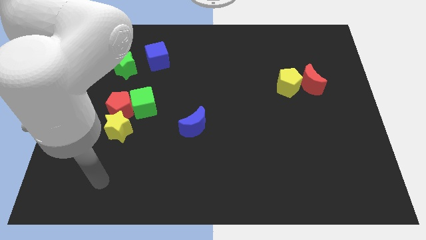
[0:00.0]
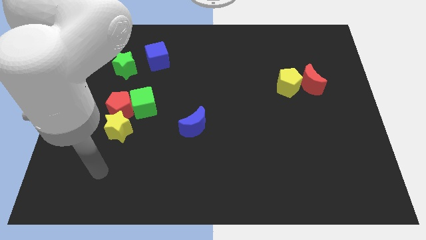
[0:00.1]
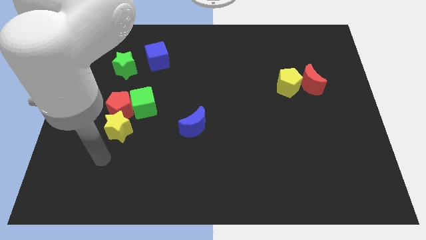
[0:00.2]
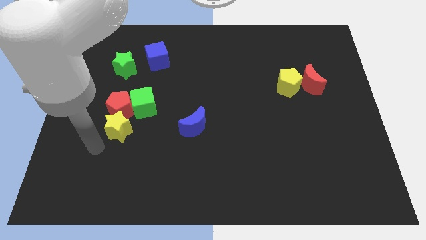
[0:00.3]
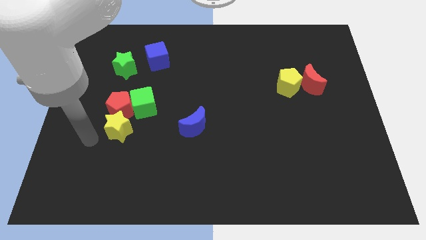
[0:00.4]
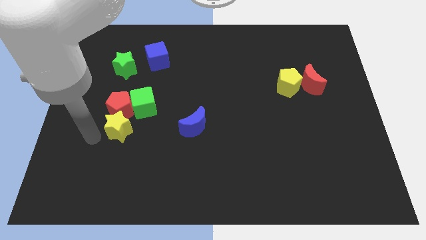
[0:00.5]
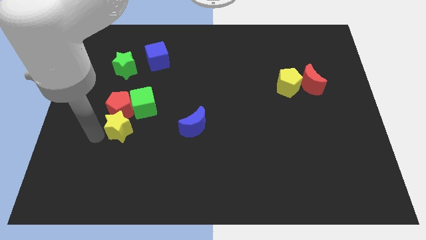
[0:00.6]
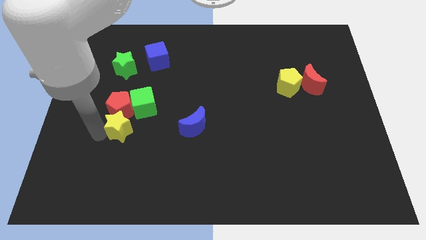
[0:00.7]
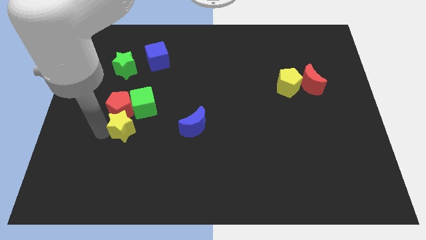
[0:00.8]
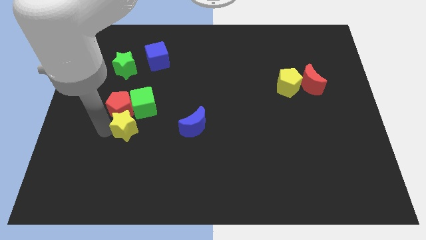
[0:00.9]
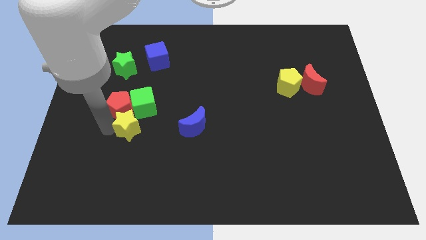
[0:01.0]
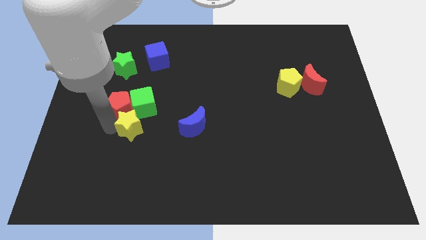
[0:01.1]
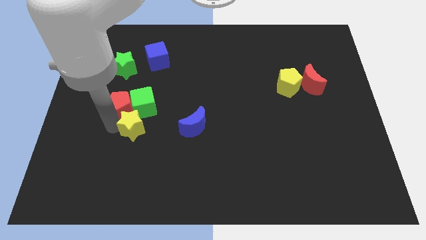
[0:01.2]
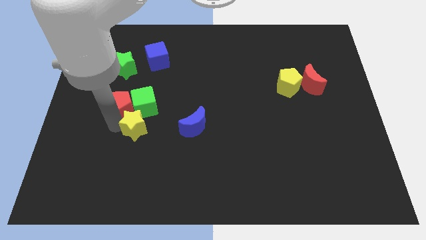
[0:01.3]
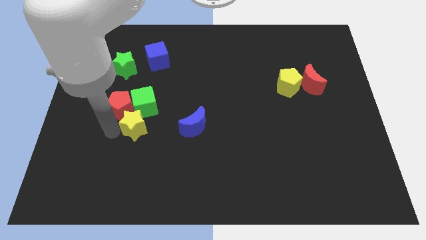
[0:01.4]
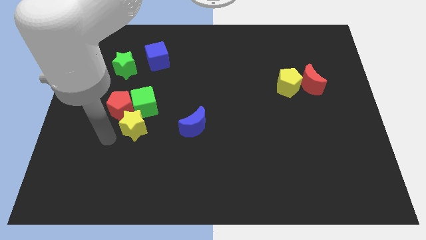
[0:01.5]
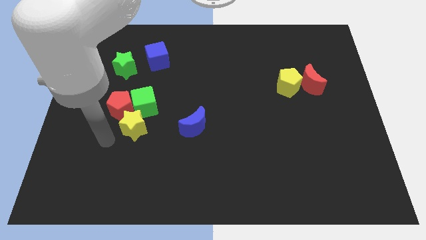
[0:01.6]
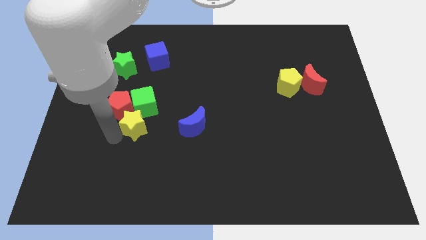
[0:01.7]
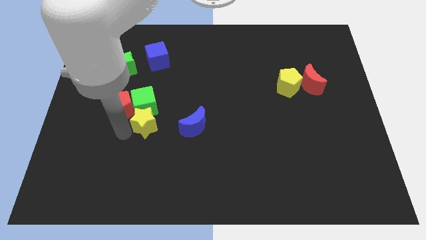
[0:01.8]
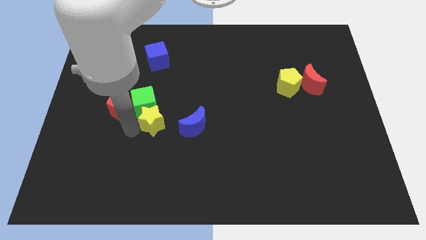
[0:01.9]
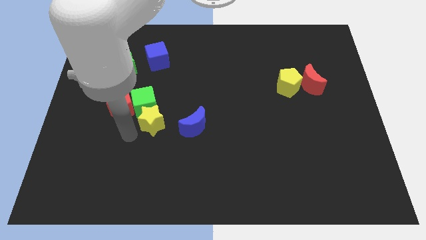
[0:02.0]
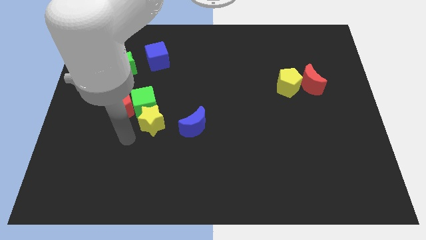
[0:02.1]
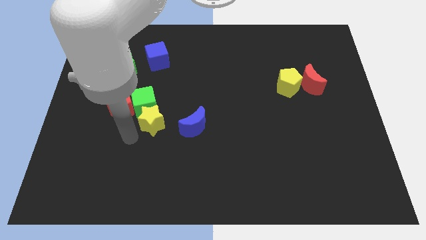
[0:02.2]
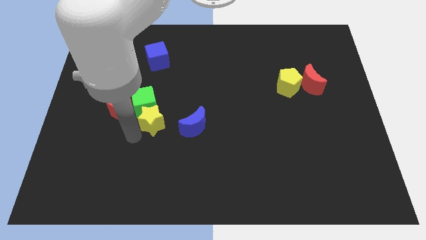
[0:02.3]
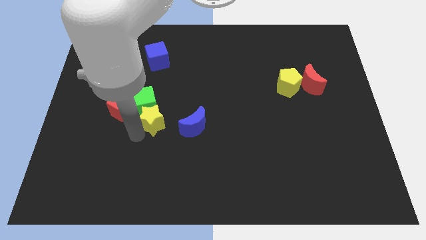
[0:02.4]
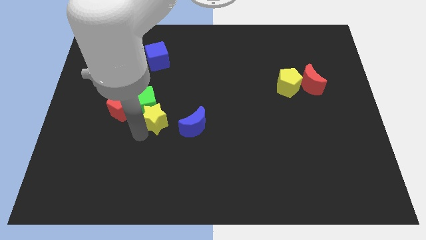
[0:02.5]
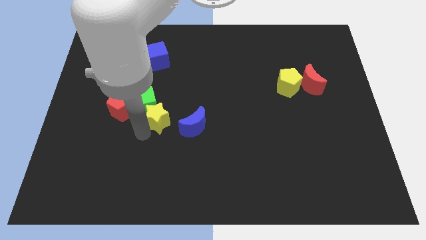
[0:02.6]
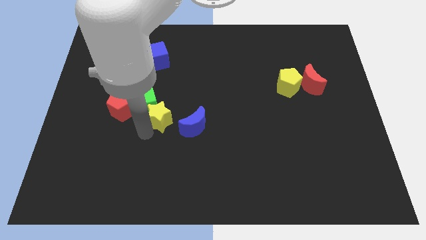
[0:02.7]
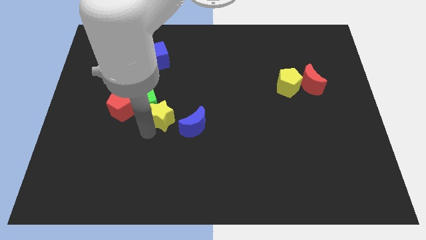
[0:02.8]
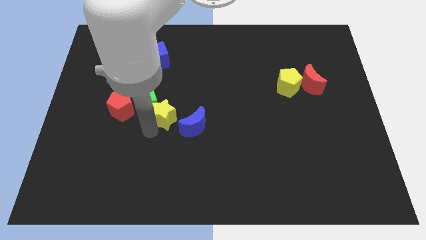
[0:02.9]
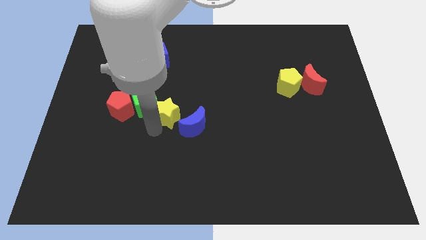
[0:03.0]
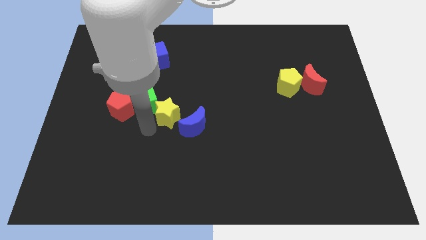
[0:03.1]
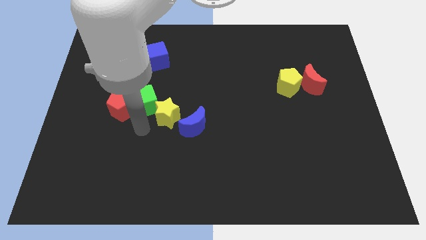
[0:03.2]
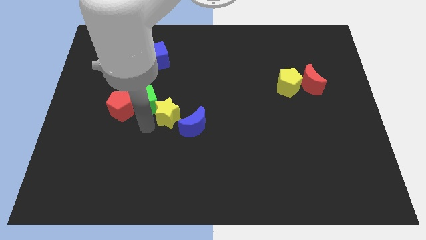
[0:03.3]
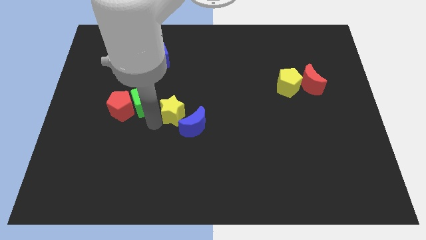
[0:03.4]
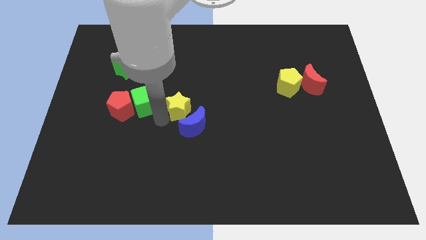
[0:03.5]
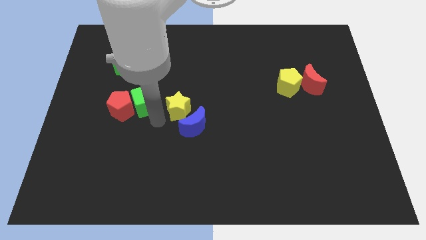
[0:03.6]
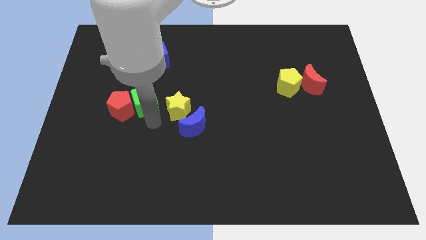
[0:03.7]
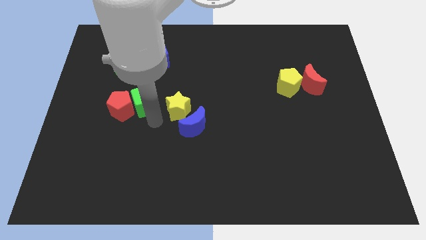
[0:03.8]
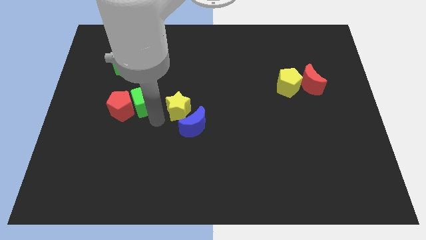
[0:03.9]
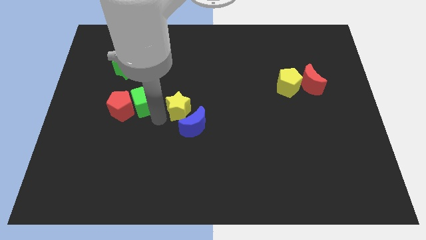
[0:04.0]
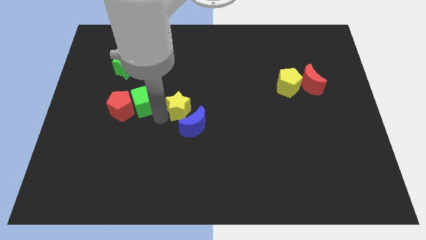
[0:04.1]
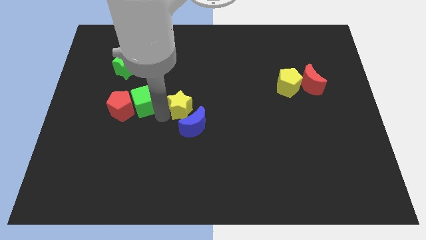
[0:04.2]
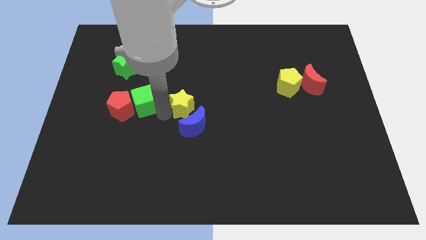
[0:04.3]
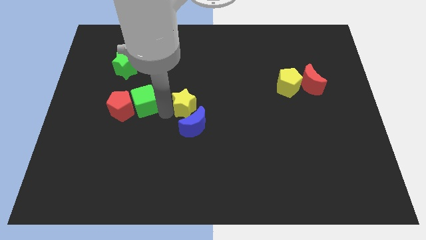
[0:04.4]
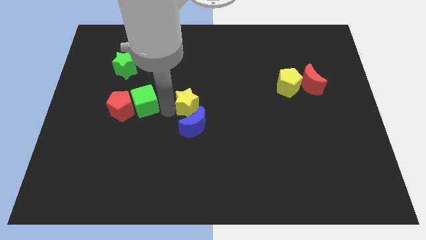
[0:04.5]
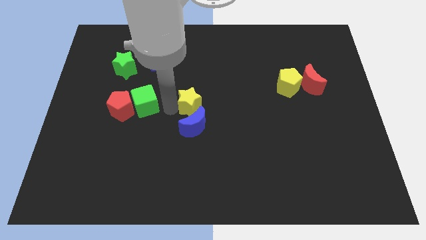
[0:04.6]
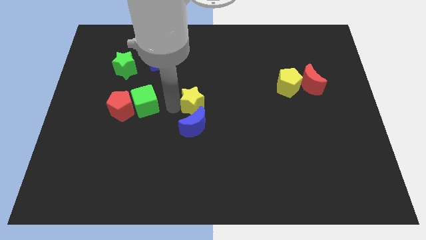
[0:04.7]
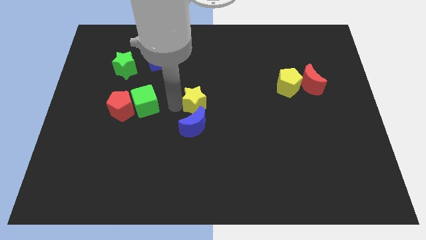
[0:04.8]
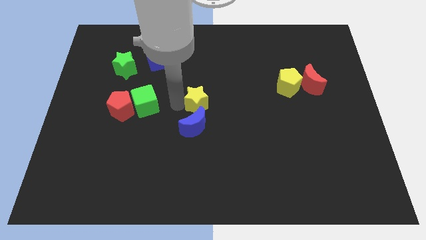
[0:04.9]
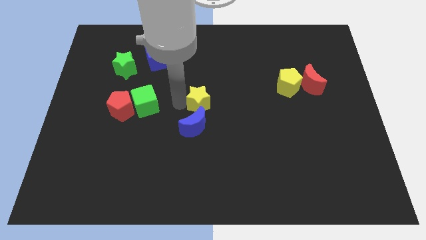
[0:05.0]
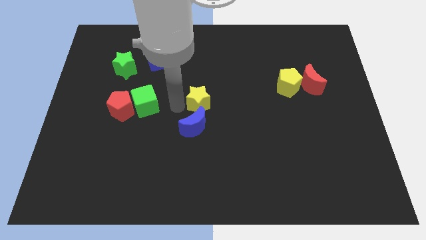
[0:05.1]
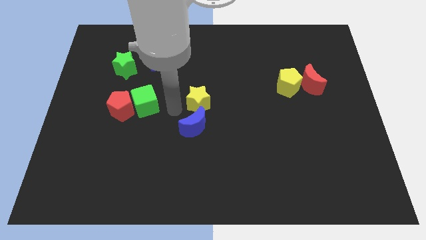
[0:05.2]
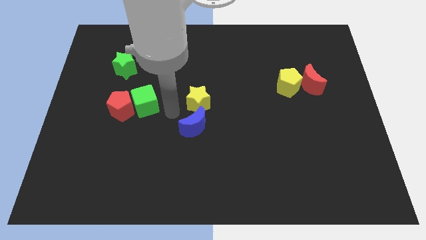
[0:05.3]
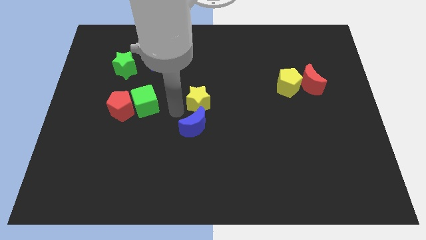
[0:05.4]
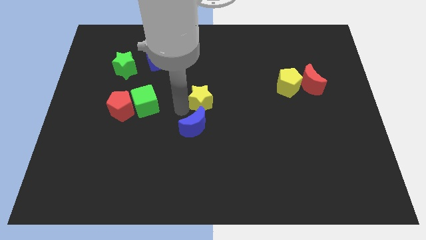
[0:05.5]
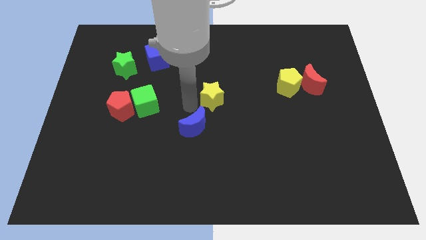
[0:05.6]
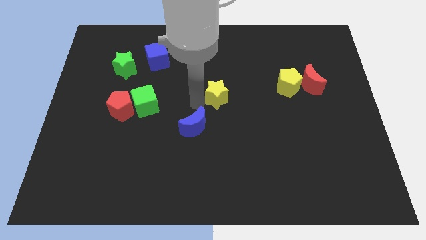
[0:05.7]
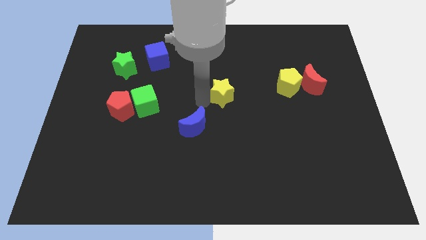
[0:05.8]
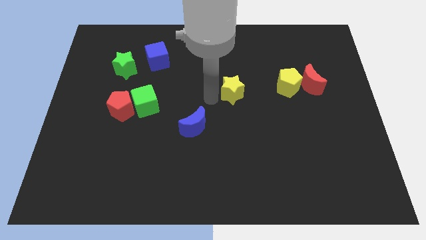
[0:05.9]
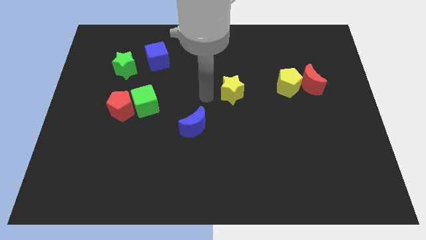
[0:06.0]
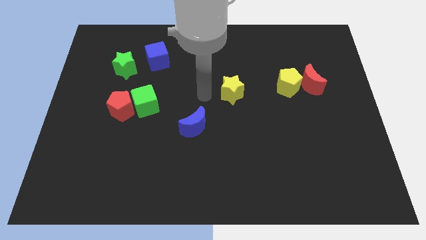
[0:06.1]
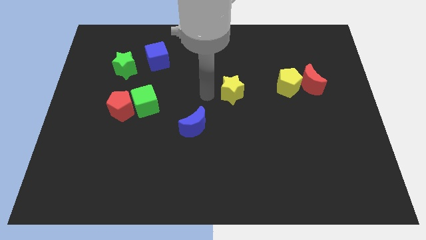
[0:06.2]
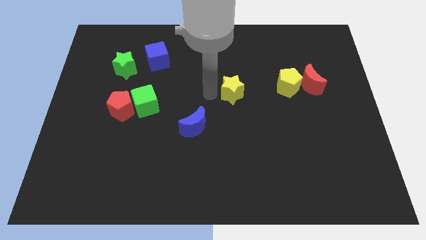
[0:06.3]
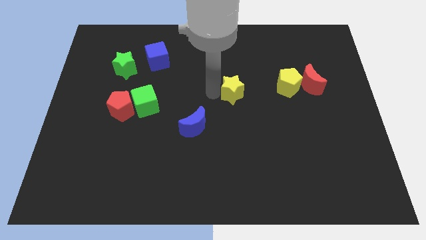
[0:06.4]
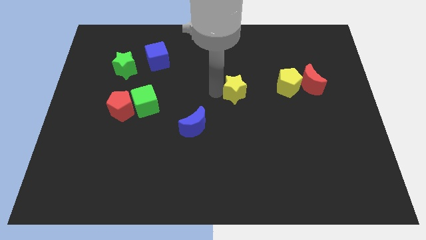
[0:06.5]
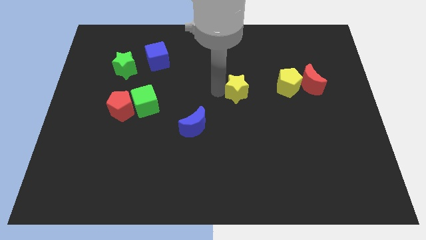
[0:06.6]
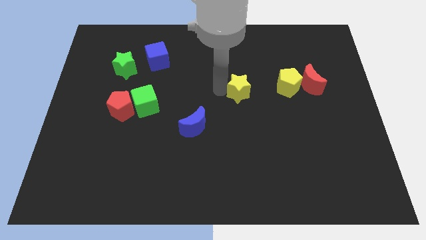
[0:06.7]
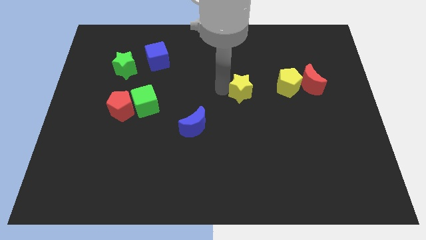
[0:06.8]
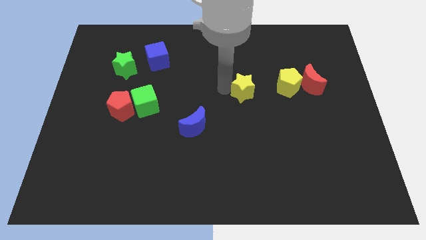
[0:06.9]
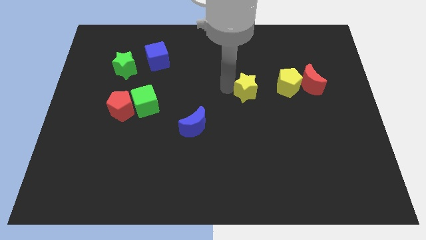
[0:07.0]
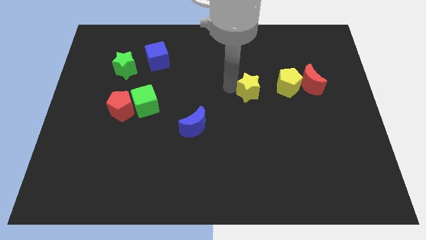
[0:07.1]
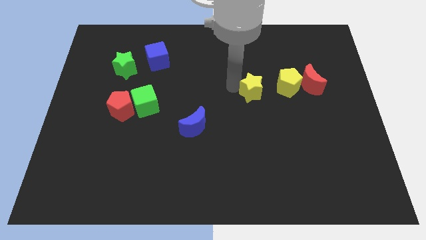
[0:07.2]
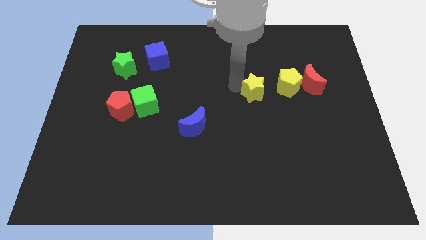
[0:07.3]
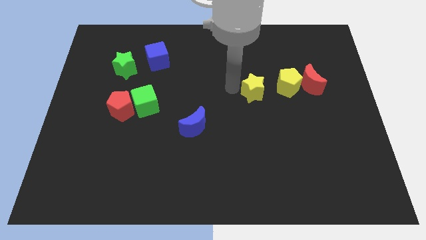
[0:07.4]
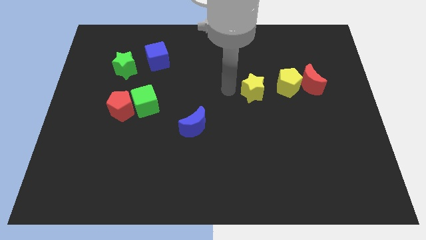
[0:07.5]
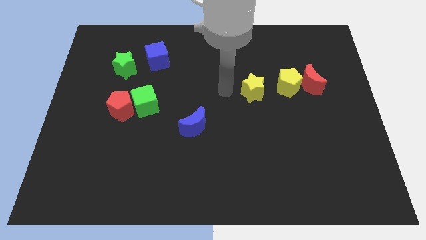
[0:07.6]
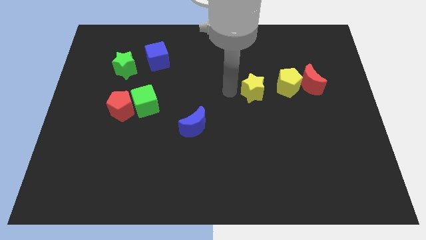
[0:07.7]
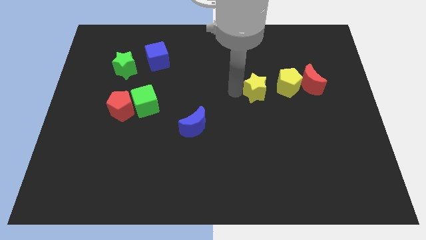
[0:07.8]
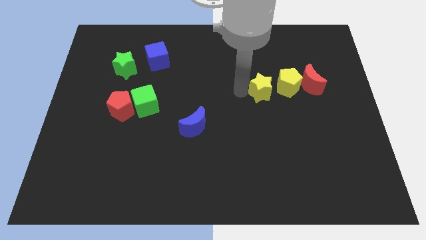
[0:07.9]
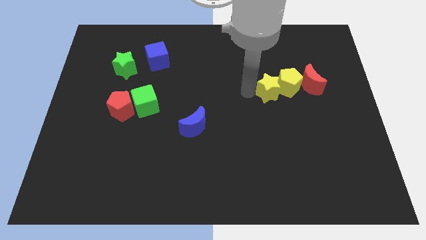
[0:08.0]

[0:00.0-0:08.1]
push the yellow star towards the yellow pentagon
